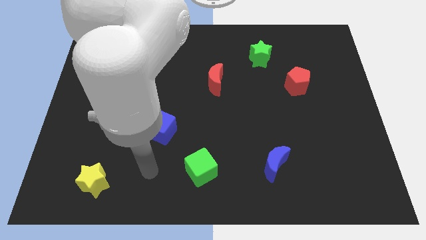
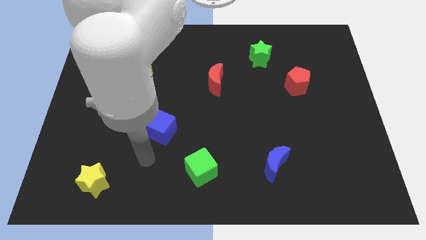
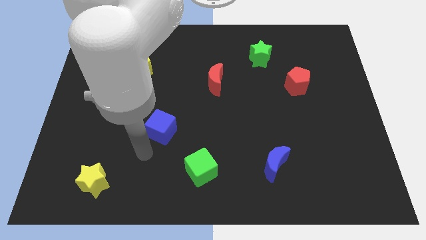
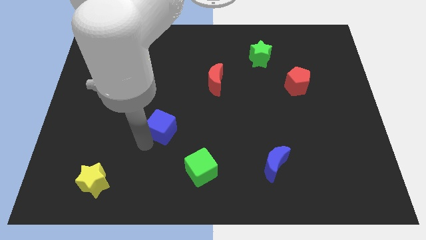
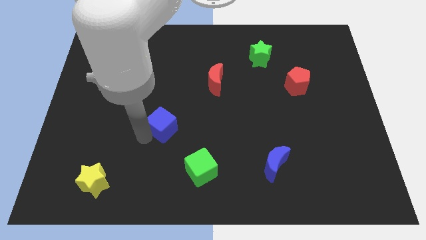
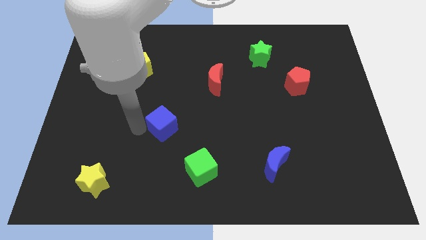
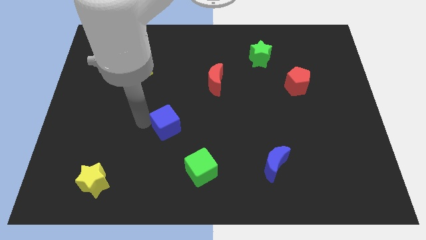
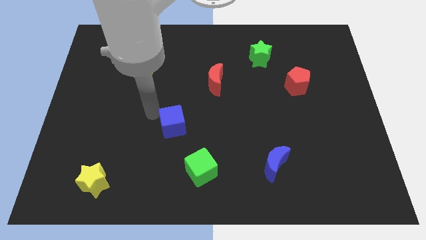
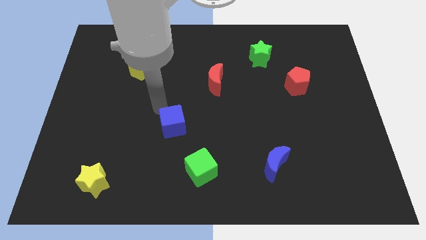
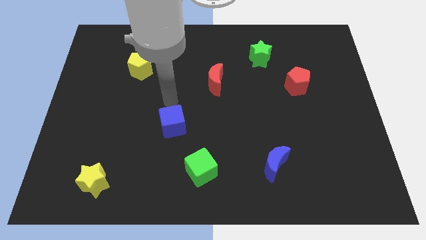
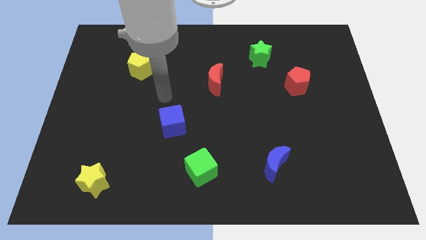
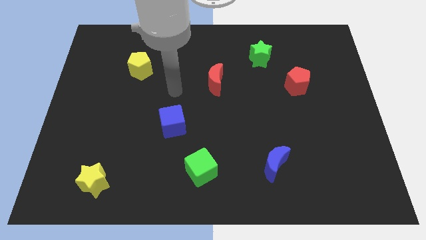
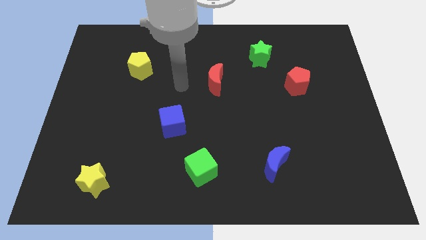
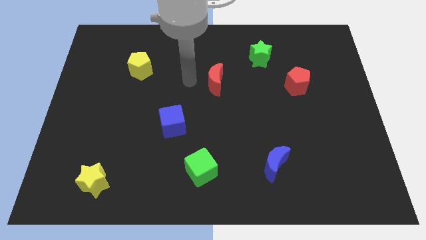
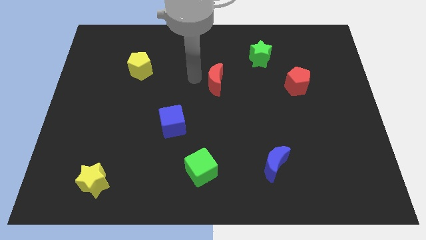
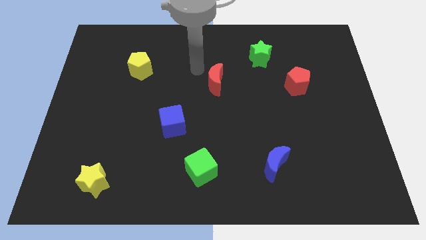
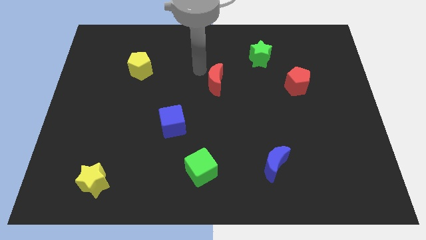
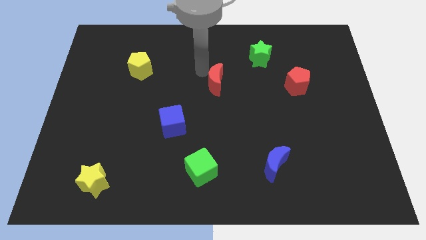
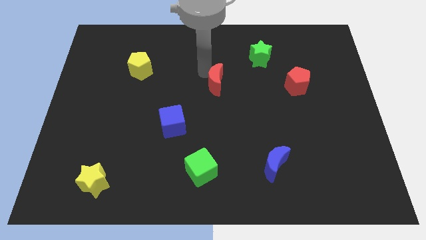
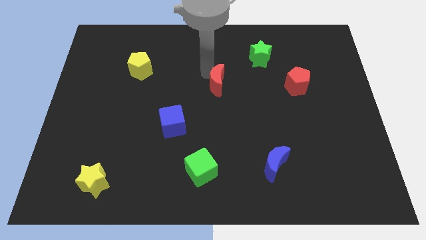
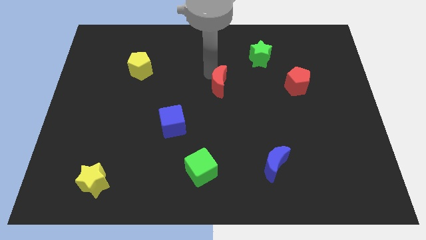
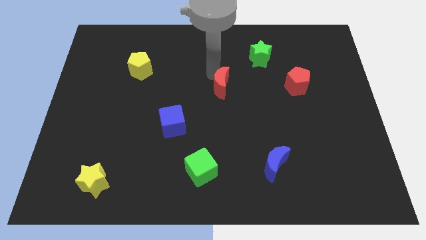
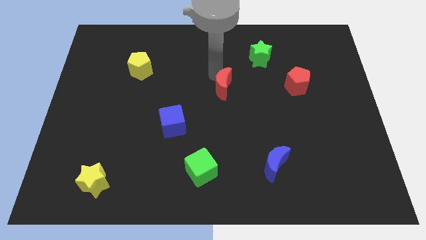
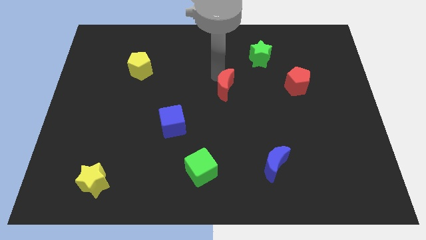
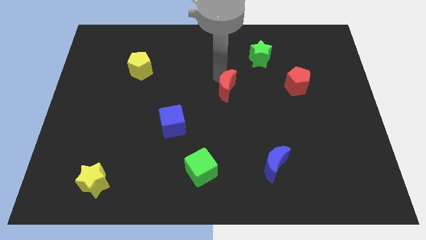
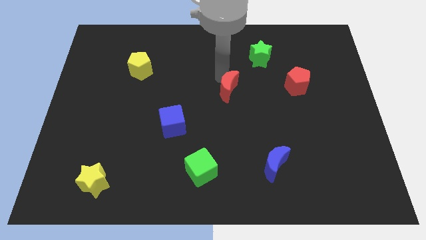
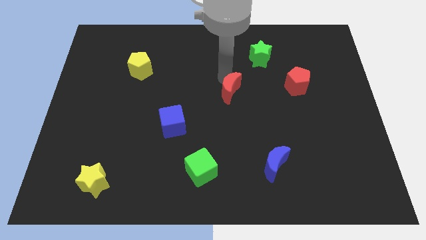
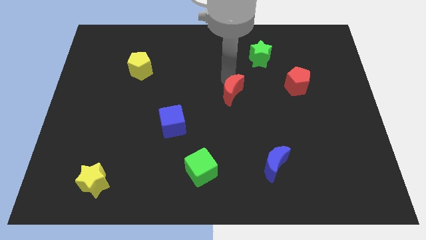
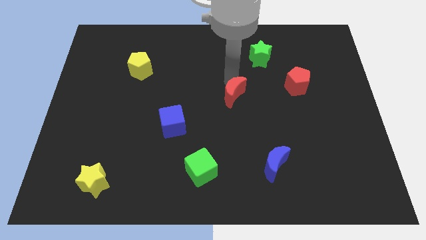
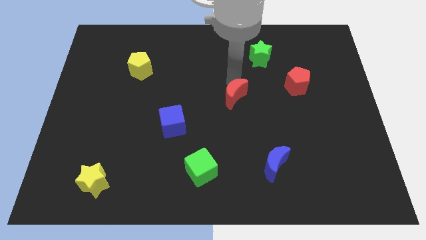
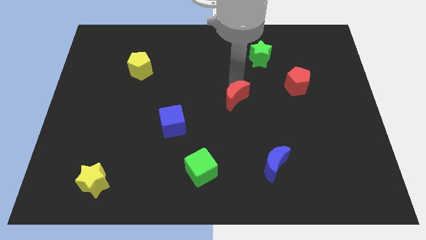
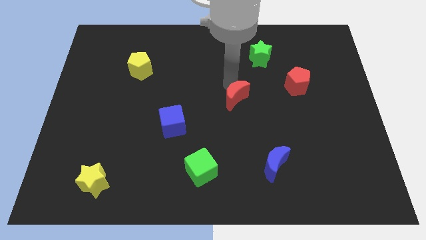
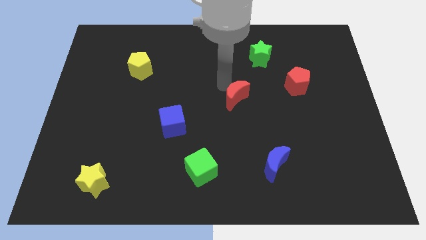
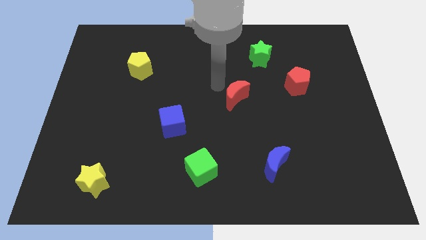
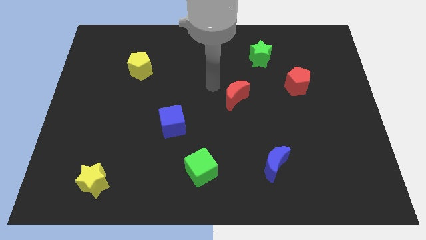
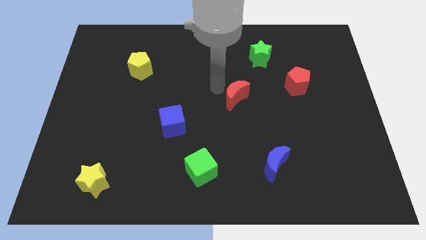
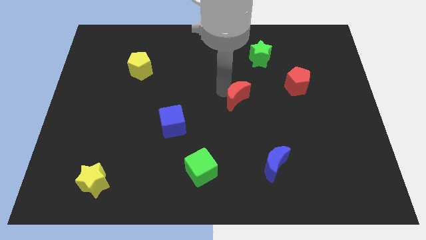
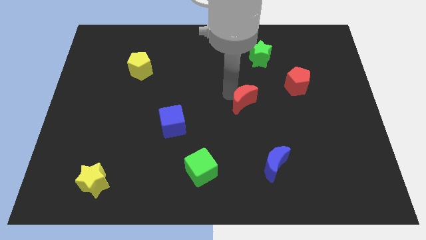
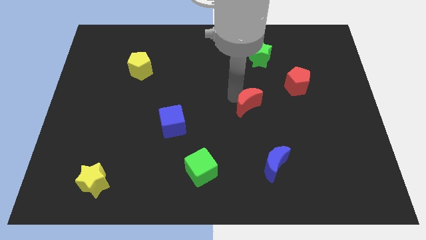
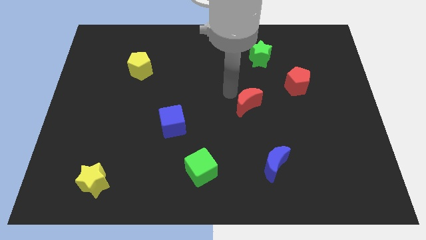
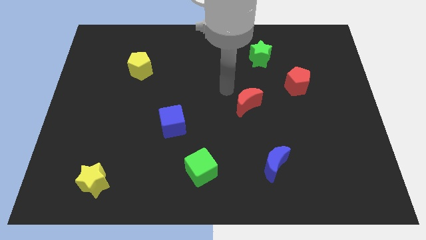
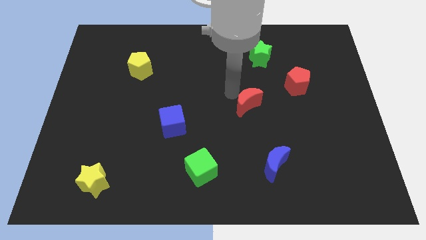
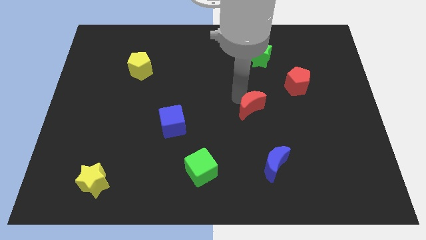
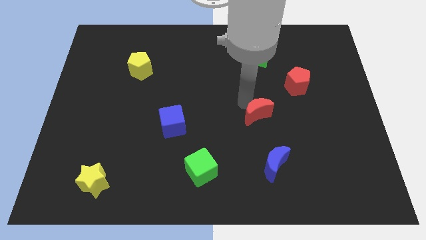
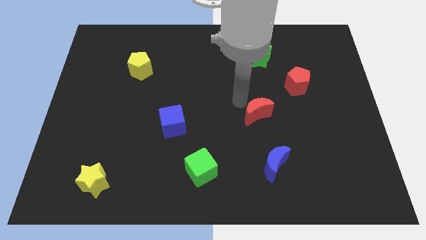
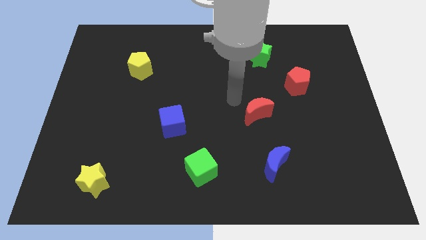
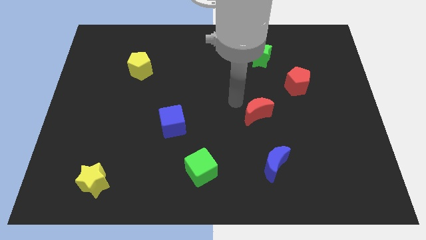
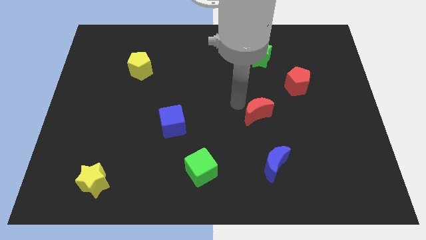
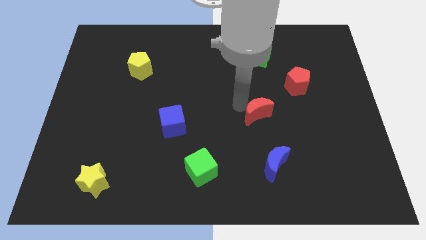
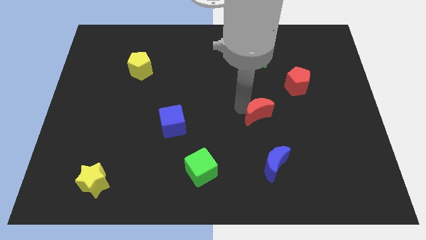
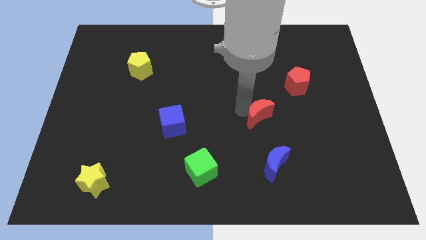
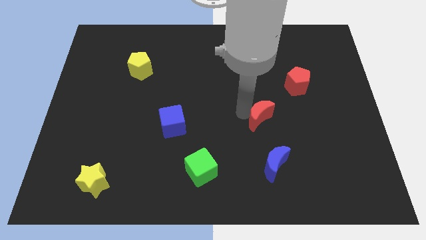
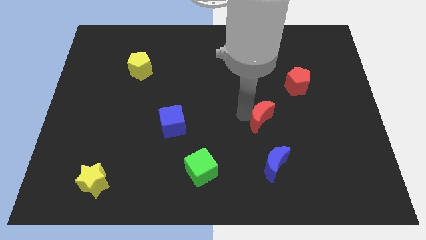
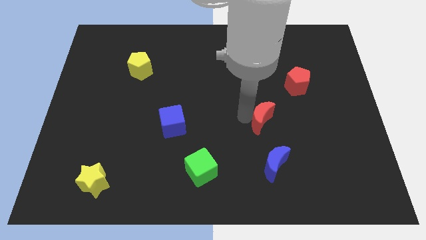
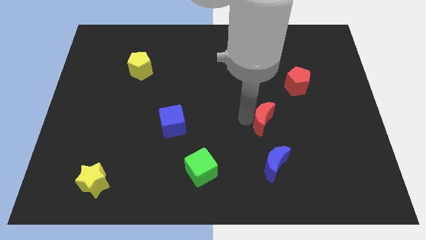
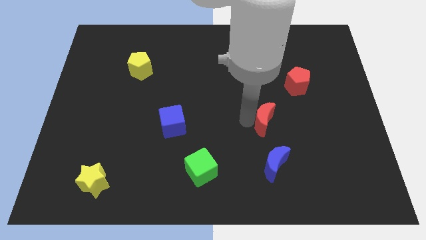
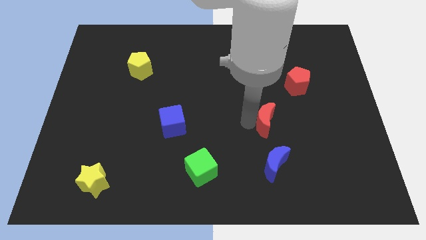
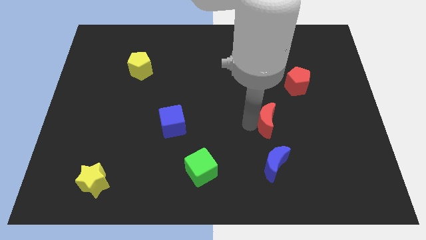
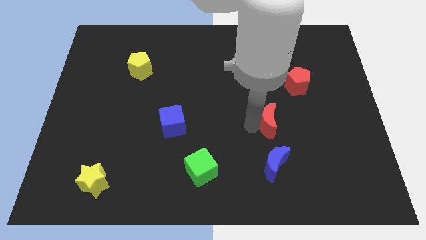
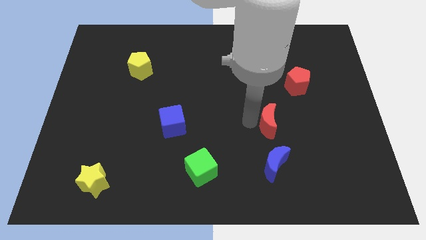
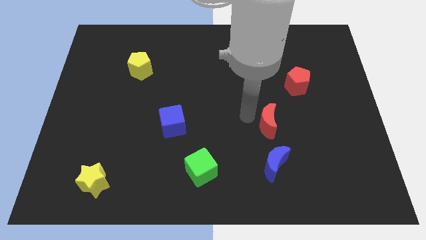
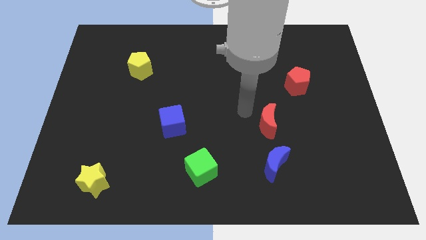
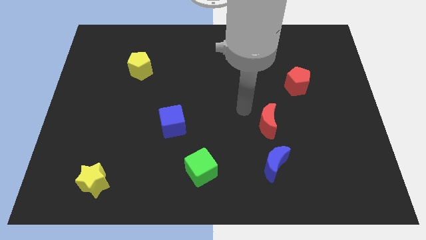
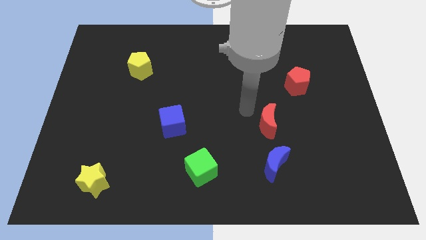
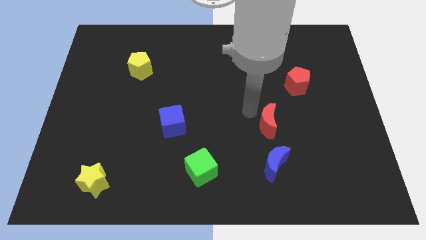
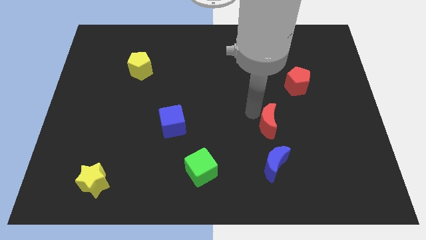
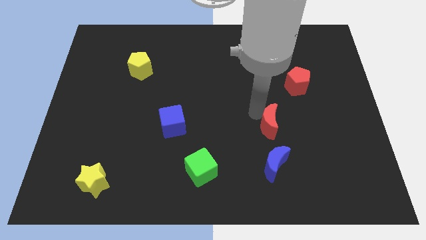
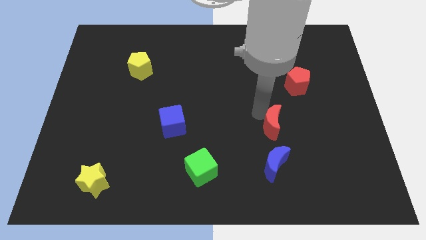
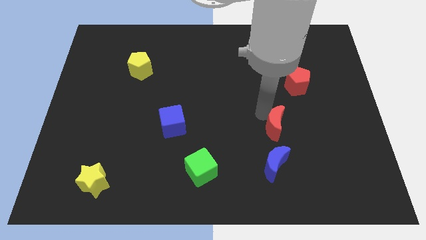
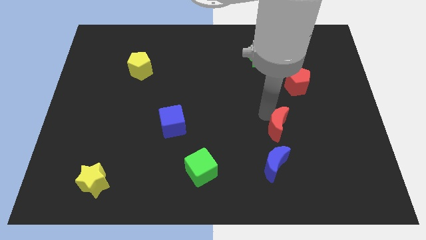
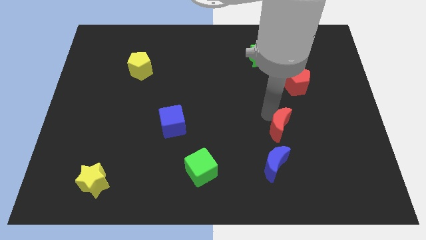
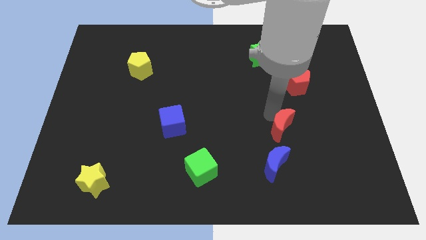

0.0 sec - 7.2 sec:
move the red moon downwards and then right

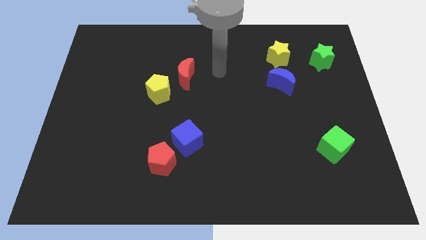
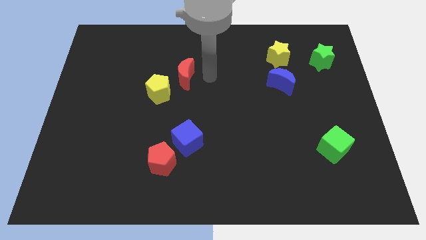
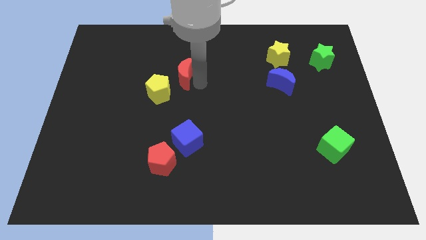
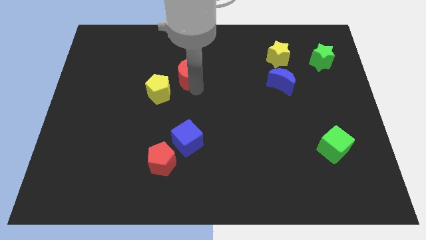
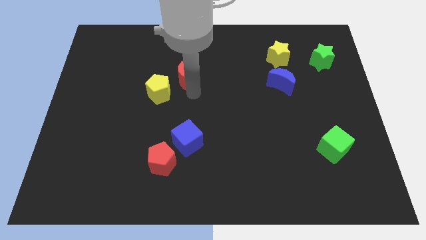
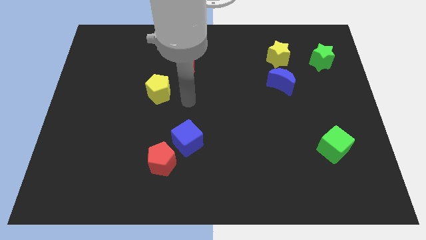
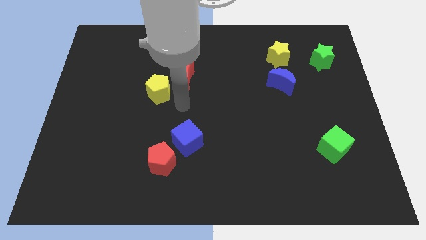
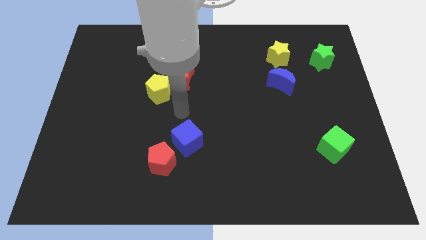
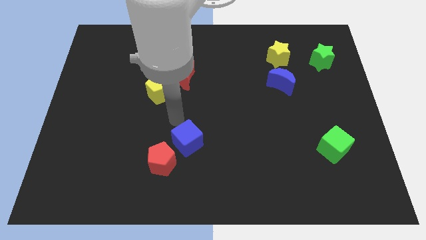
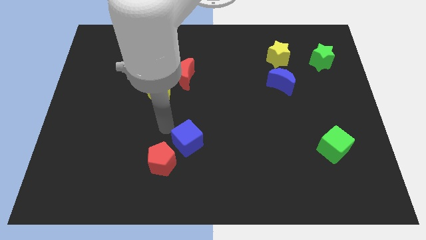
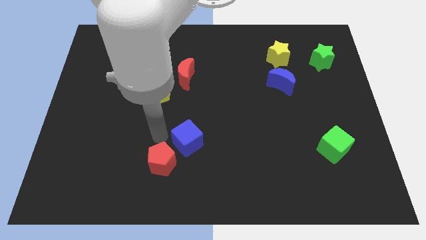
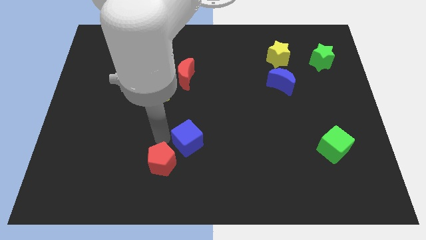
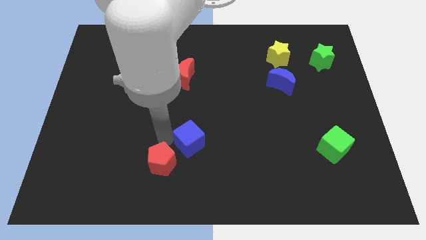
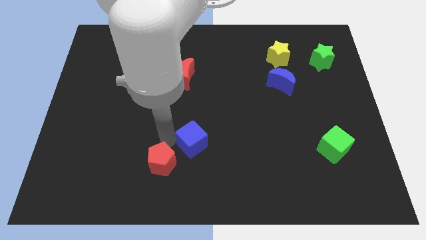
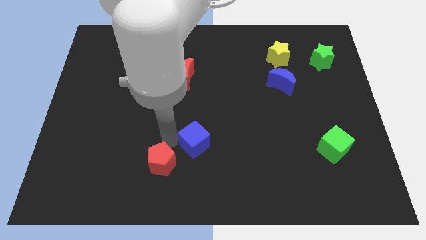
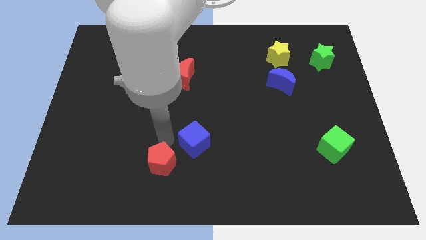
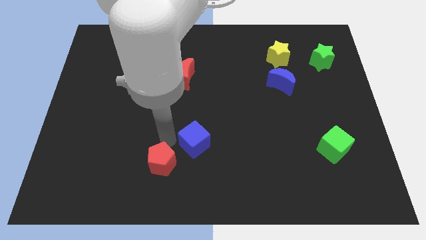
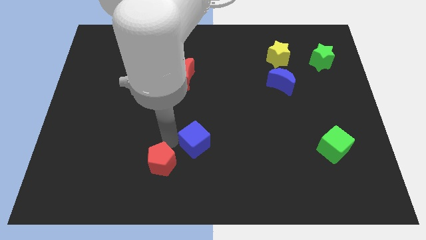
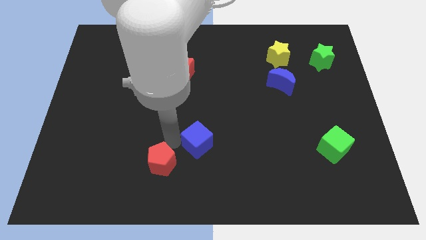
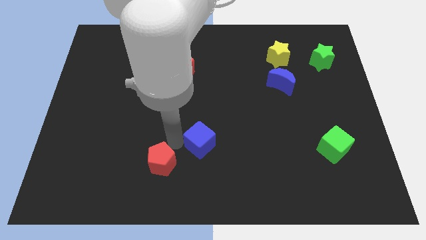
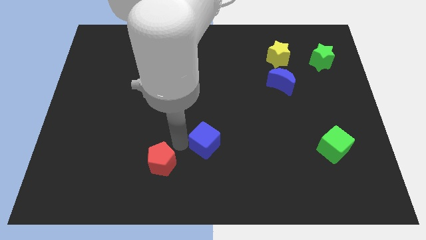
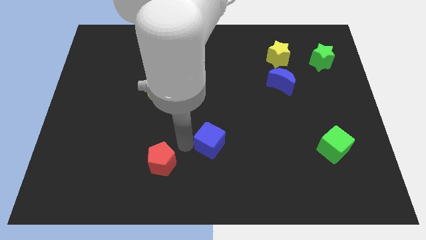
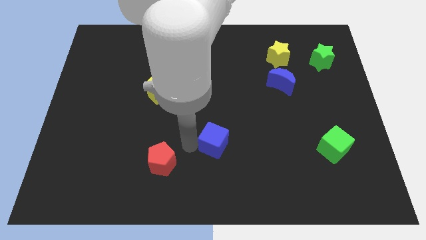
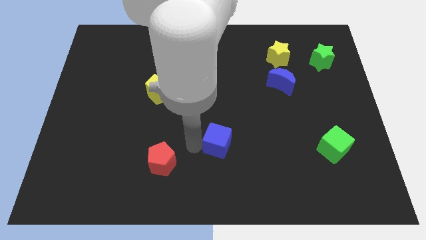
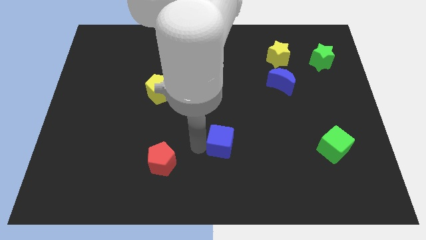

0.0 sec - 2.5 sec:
push the blue cube a bit to the right
